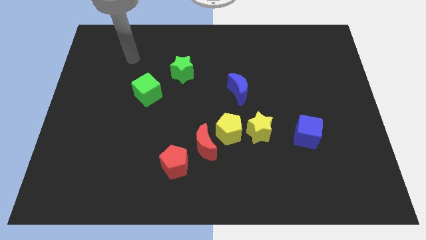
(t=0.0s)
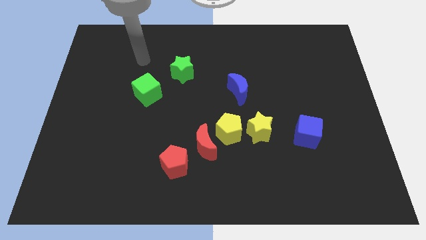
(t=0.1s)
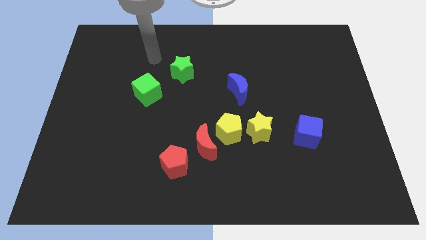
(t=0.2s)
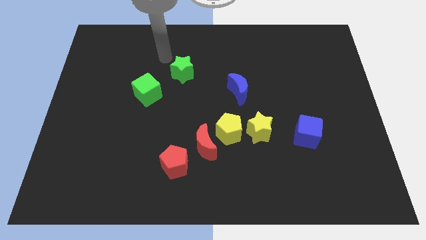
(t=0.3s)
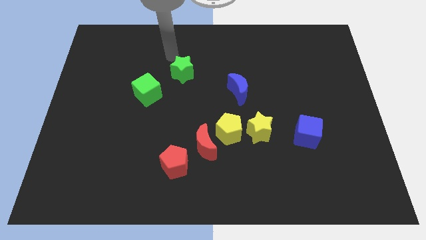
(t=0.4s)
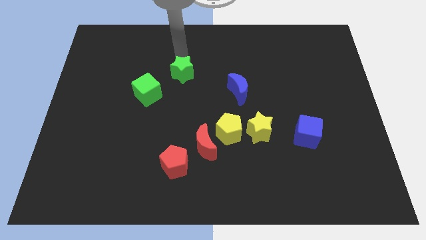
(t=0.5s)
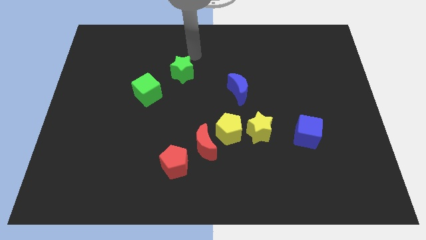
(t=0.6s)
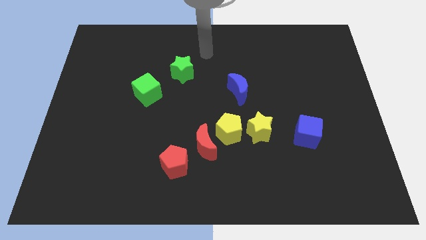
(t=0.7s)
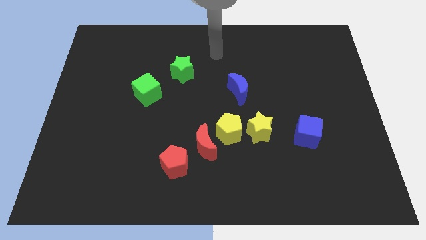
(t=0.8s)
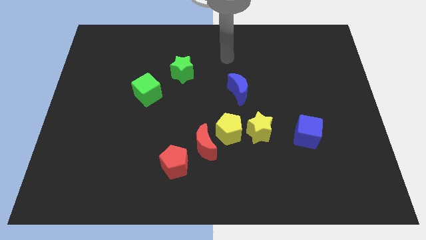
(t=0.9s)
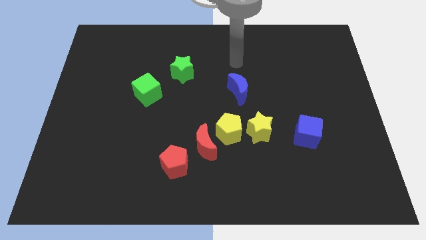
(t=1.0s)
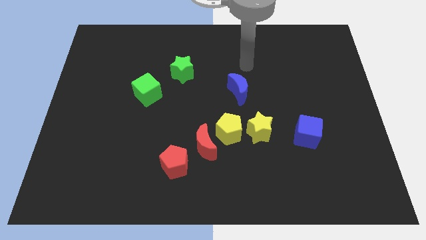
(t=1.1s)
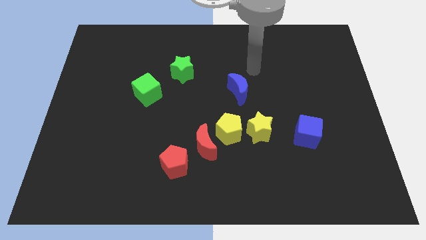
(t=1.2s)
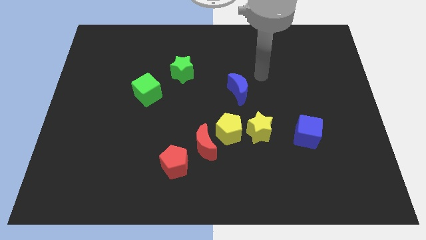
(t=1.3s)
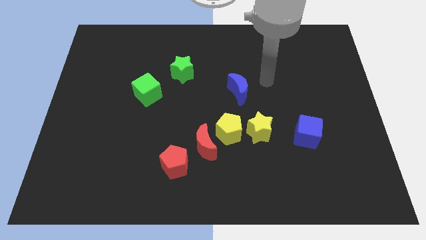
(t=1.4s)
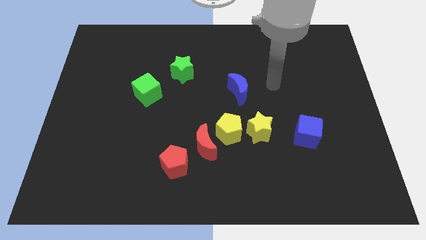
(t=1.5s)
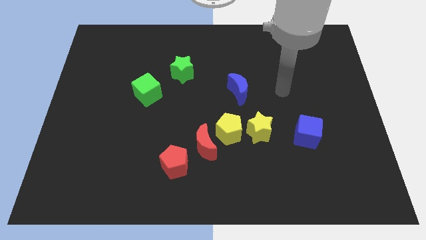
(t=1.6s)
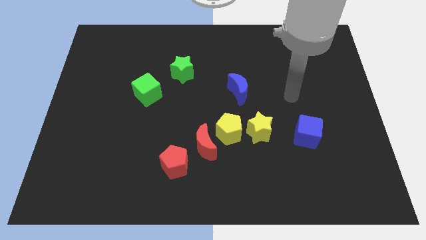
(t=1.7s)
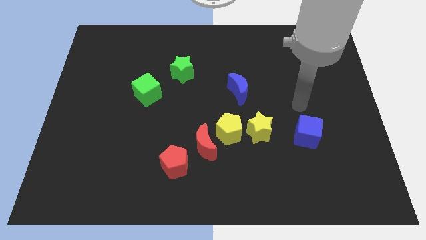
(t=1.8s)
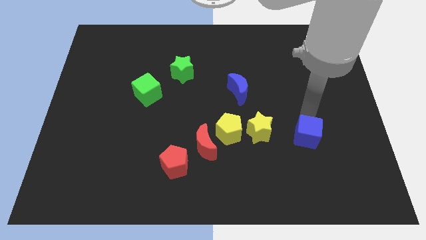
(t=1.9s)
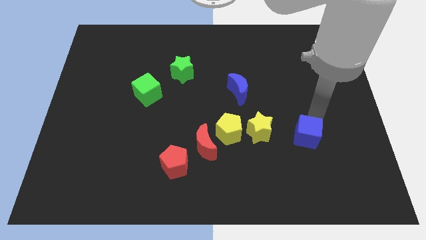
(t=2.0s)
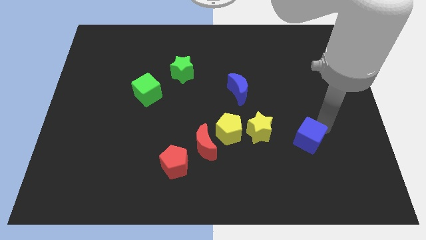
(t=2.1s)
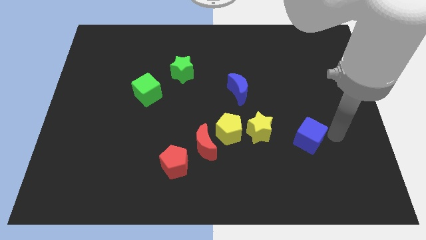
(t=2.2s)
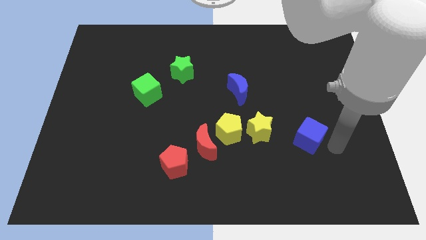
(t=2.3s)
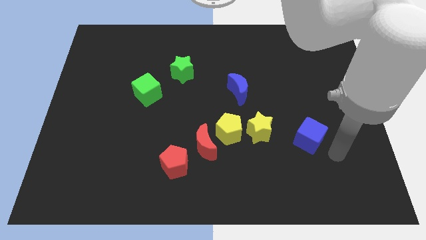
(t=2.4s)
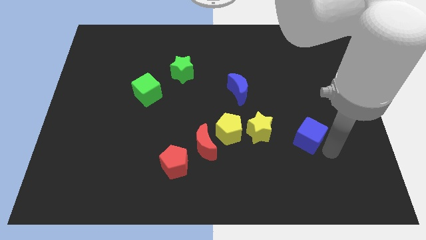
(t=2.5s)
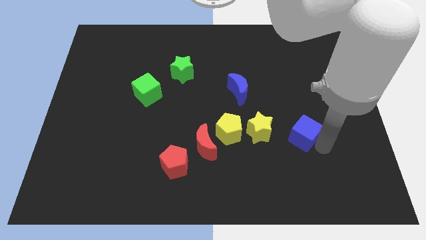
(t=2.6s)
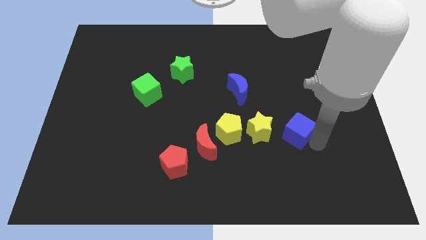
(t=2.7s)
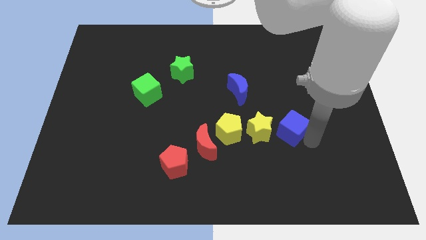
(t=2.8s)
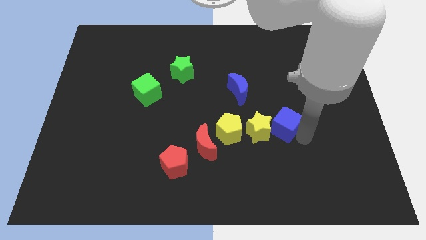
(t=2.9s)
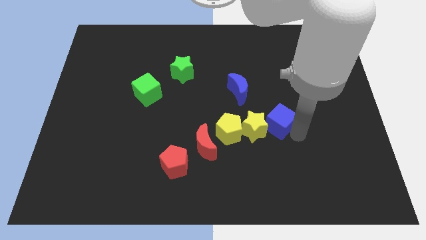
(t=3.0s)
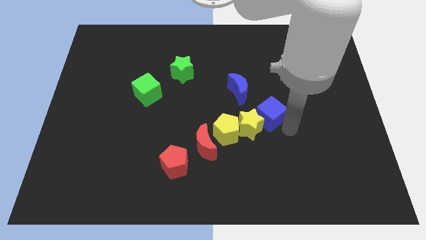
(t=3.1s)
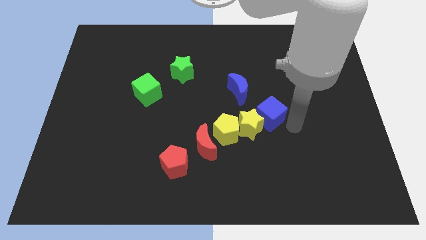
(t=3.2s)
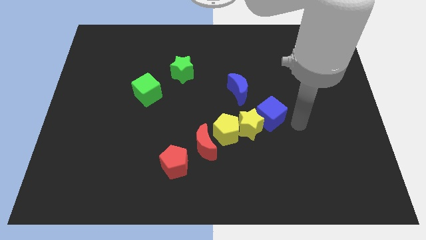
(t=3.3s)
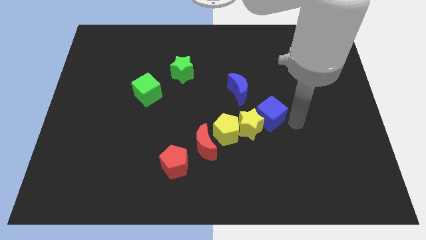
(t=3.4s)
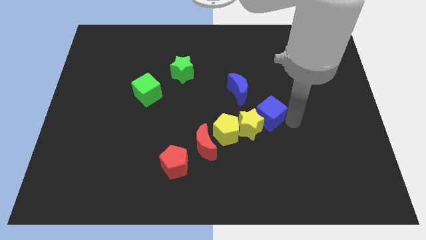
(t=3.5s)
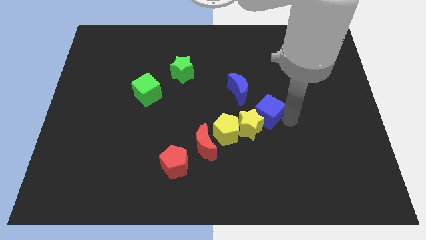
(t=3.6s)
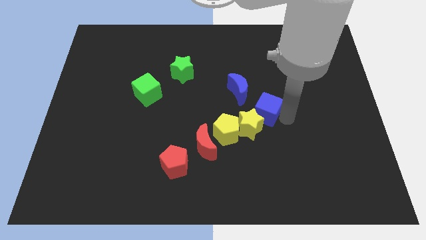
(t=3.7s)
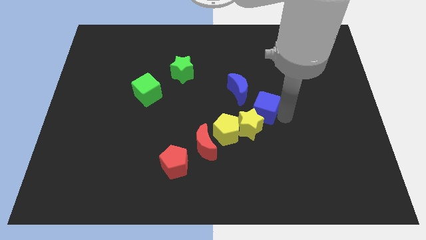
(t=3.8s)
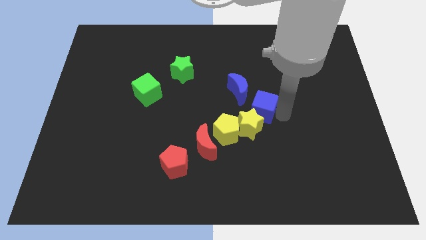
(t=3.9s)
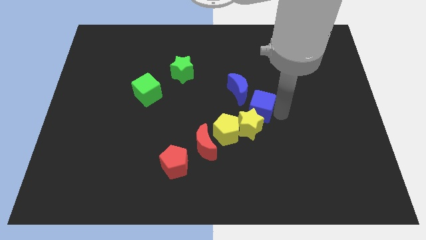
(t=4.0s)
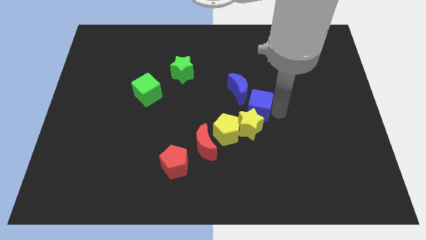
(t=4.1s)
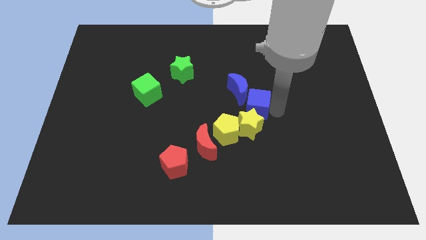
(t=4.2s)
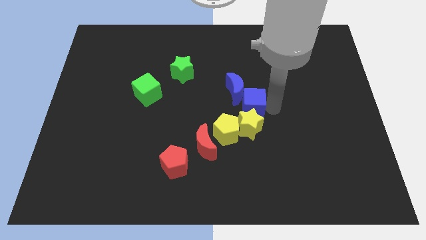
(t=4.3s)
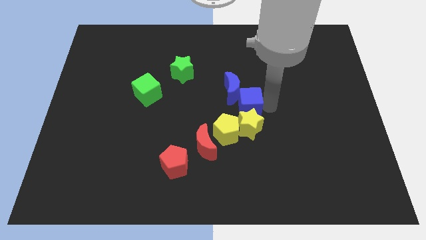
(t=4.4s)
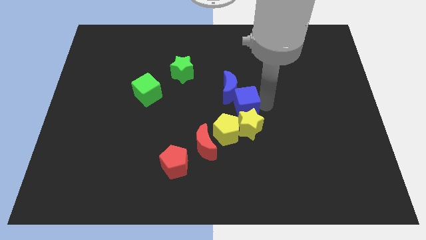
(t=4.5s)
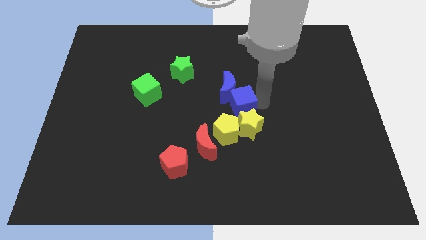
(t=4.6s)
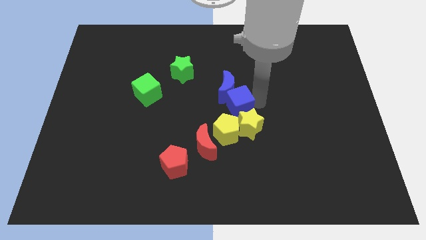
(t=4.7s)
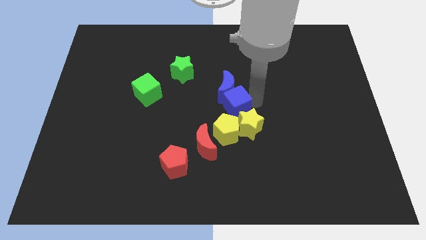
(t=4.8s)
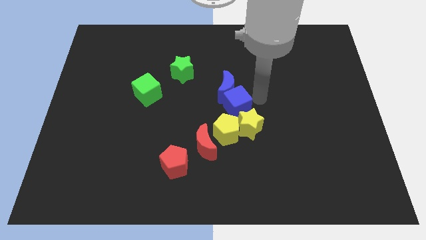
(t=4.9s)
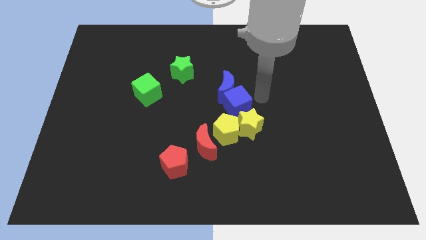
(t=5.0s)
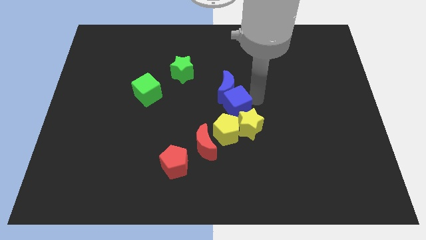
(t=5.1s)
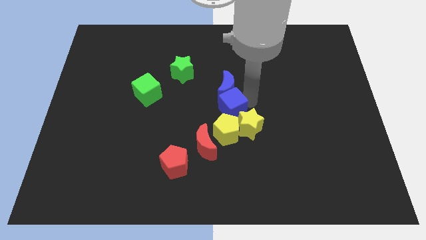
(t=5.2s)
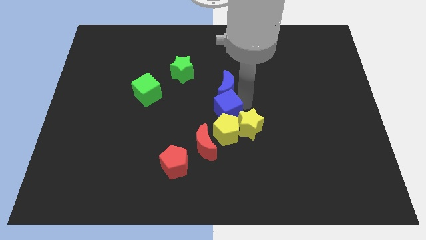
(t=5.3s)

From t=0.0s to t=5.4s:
slide the blue cube to the left side of the yellow star

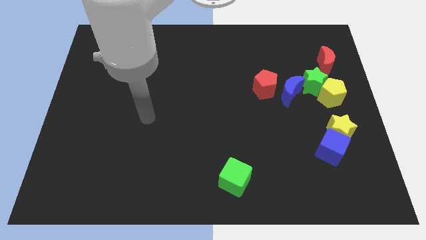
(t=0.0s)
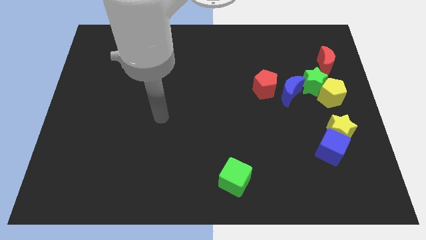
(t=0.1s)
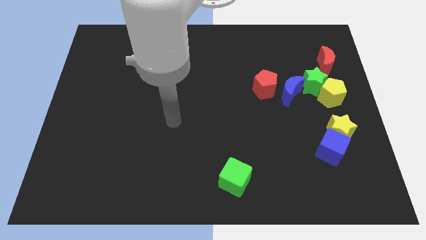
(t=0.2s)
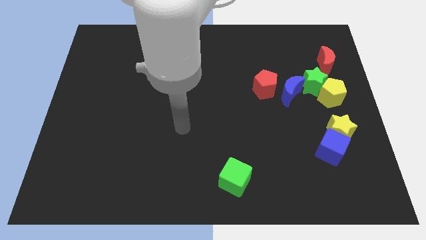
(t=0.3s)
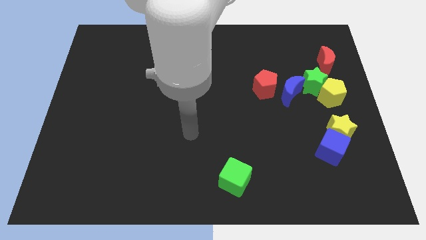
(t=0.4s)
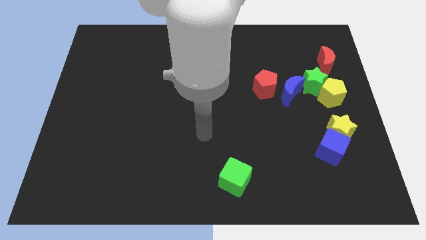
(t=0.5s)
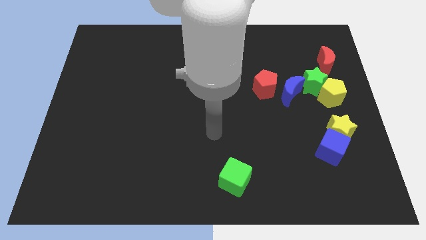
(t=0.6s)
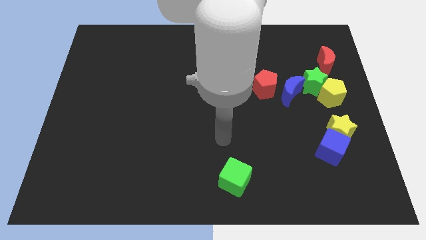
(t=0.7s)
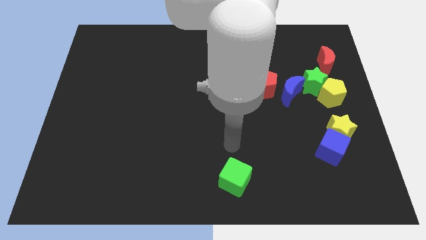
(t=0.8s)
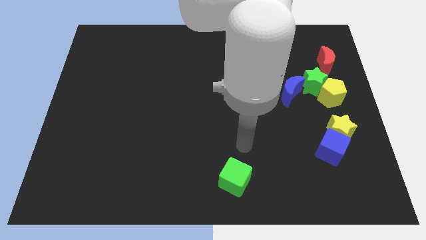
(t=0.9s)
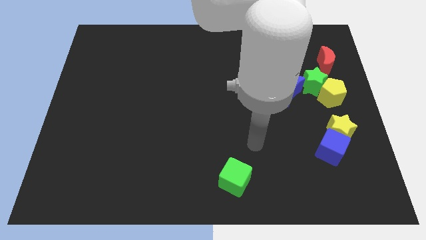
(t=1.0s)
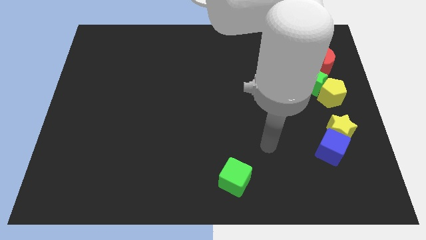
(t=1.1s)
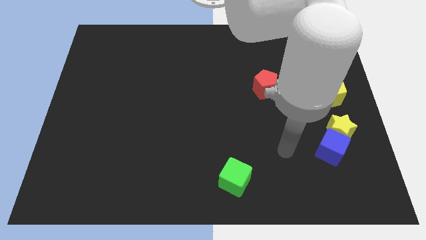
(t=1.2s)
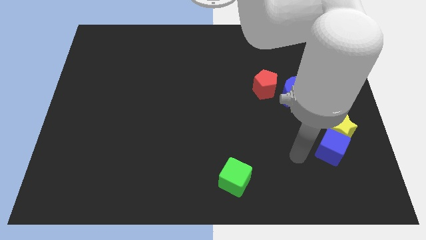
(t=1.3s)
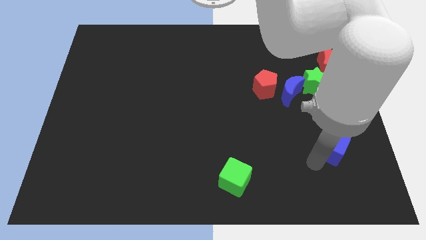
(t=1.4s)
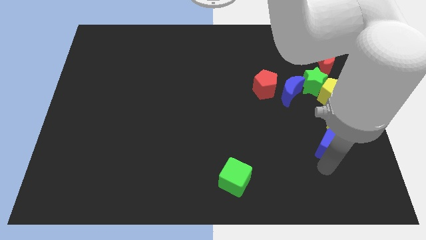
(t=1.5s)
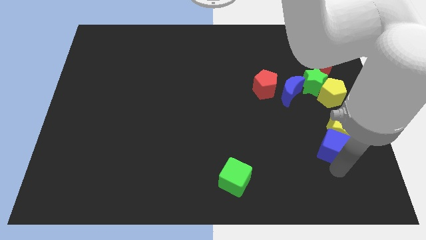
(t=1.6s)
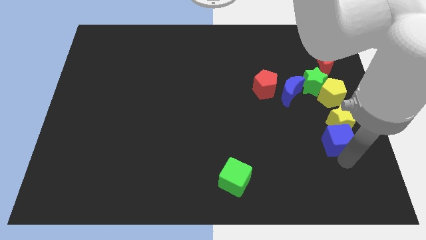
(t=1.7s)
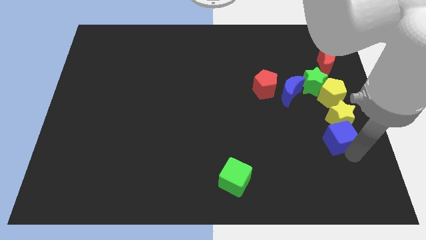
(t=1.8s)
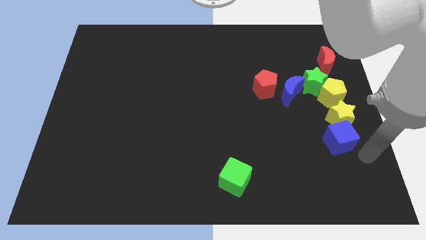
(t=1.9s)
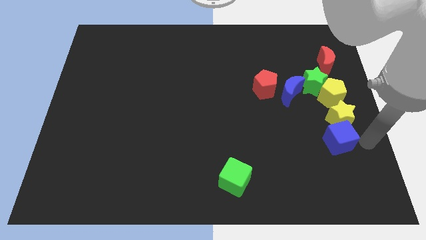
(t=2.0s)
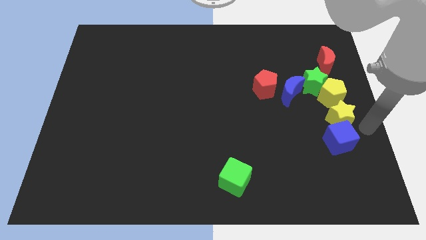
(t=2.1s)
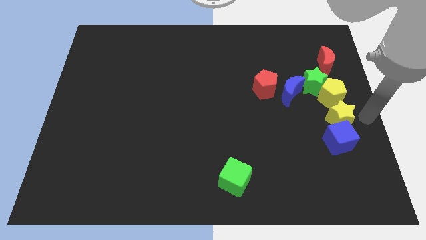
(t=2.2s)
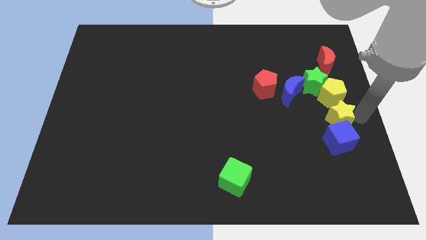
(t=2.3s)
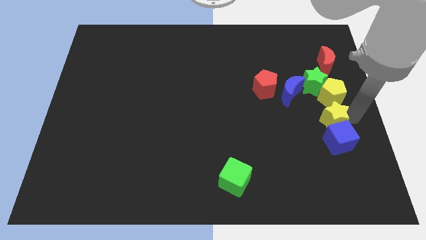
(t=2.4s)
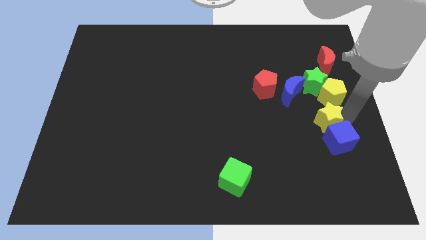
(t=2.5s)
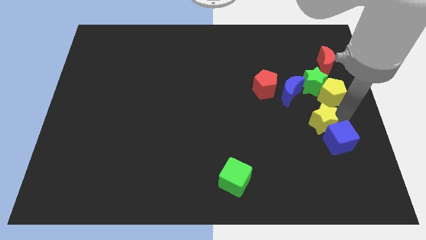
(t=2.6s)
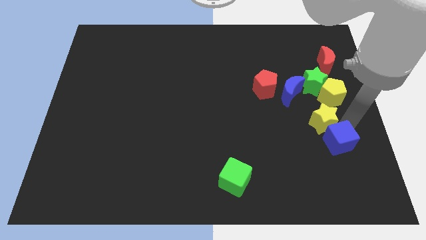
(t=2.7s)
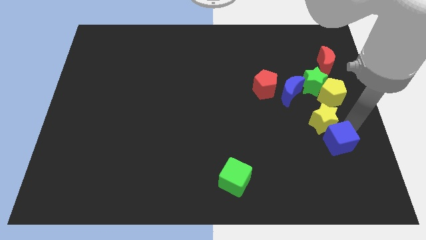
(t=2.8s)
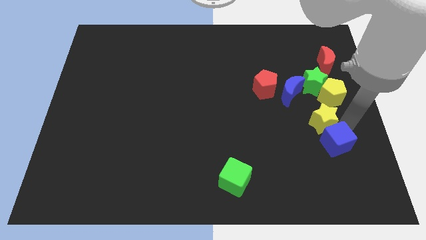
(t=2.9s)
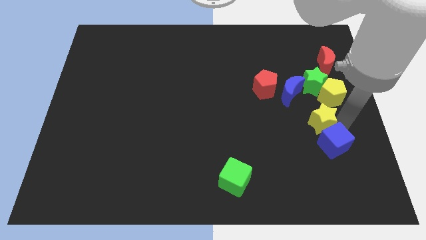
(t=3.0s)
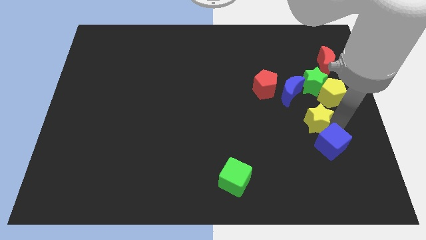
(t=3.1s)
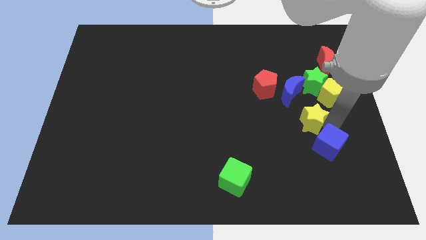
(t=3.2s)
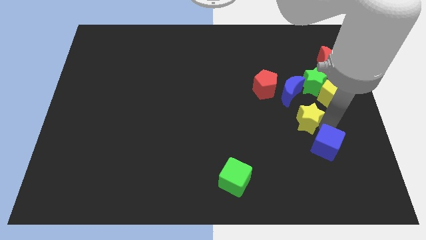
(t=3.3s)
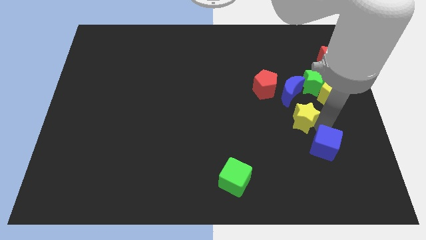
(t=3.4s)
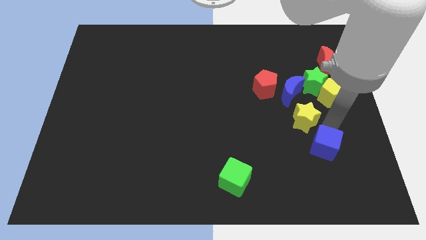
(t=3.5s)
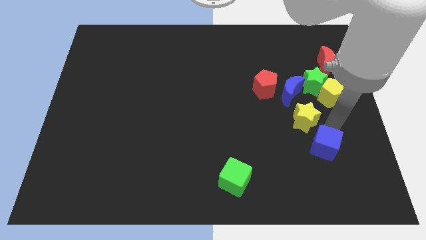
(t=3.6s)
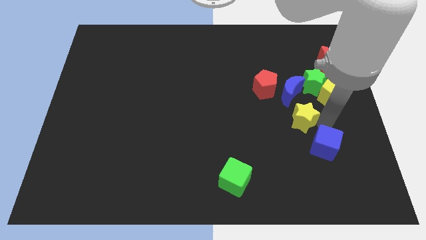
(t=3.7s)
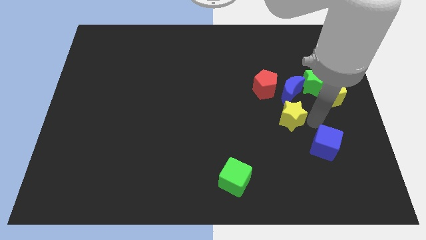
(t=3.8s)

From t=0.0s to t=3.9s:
push the yellow star to the bottom left of the blue moon
